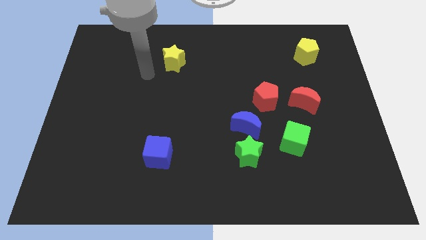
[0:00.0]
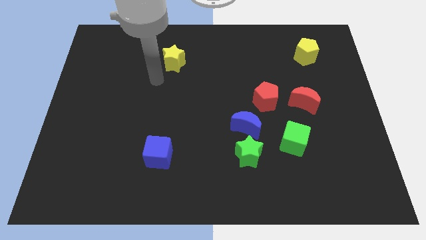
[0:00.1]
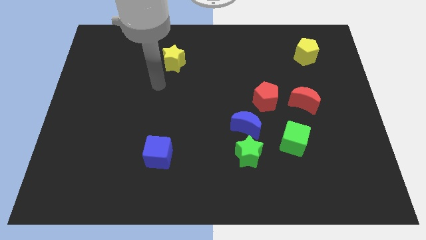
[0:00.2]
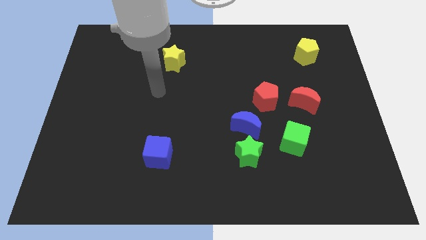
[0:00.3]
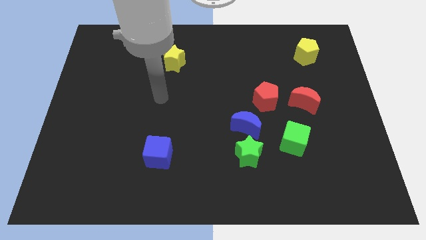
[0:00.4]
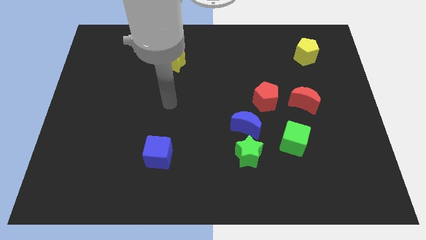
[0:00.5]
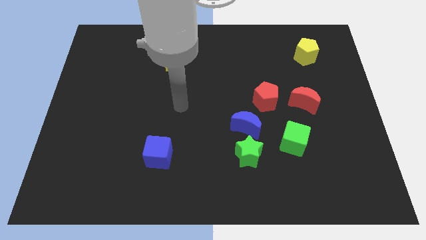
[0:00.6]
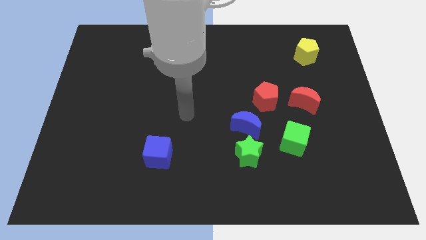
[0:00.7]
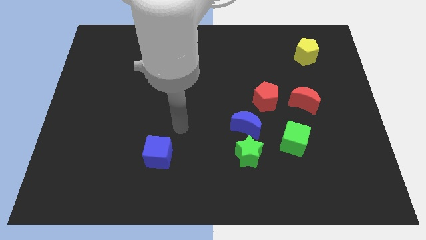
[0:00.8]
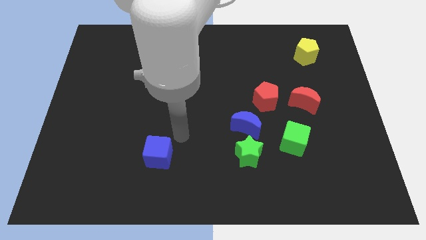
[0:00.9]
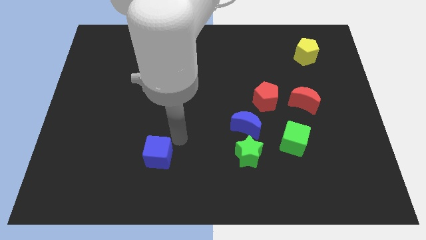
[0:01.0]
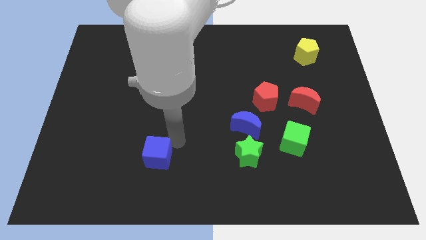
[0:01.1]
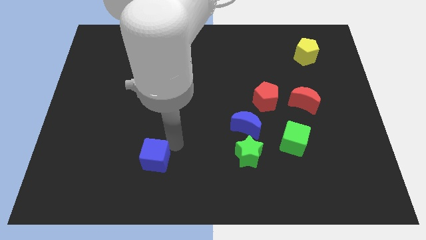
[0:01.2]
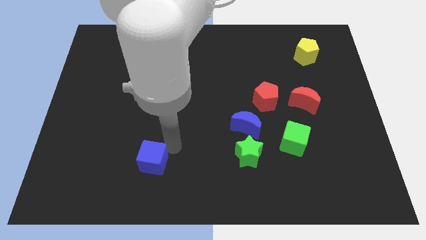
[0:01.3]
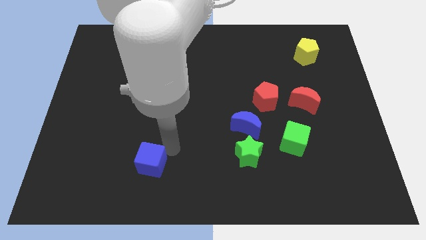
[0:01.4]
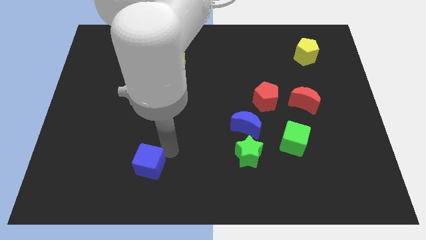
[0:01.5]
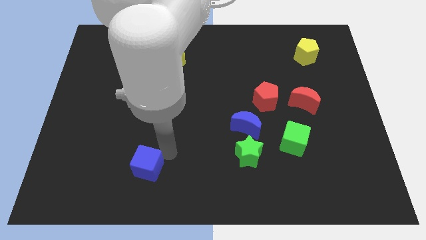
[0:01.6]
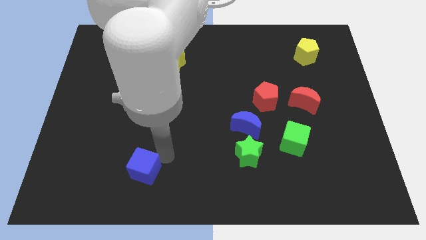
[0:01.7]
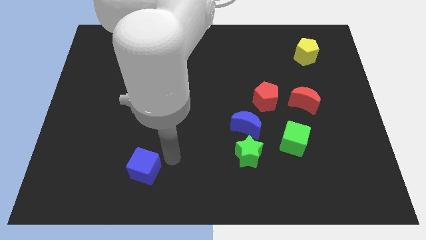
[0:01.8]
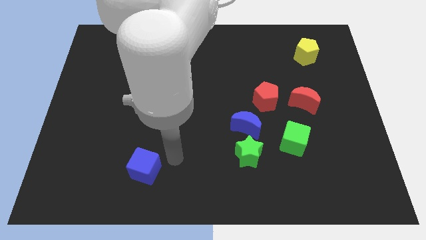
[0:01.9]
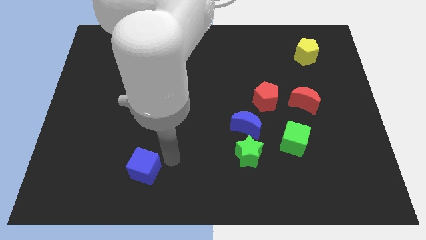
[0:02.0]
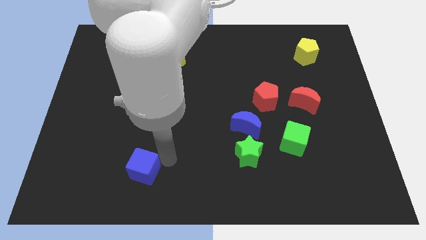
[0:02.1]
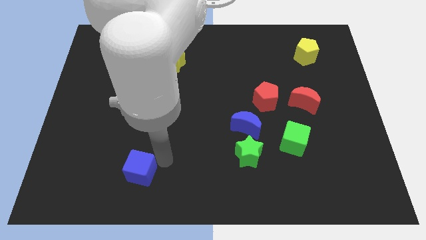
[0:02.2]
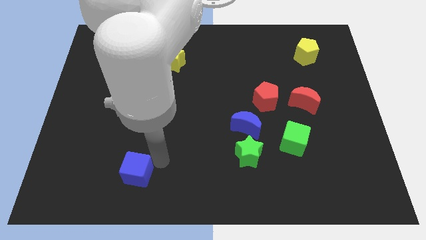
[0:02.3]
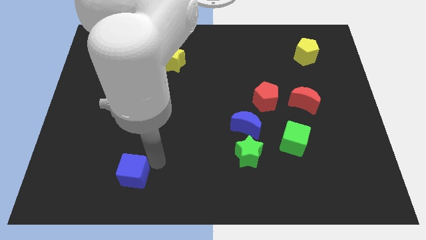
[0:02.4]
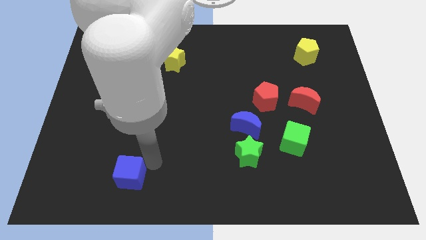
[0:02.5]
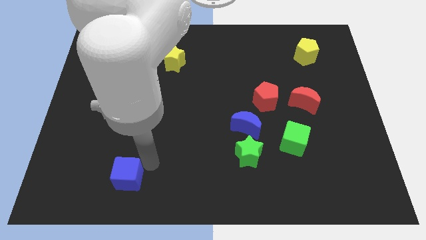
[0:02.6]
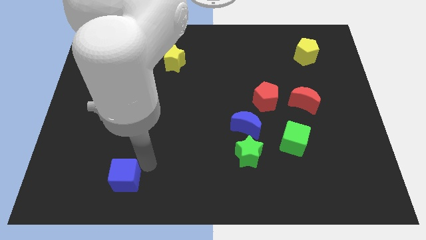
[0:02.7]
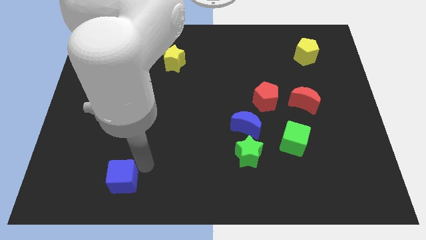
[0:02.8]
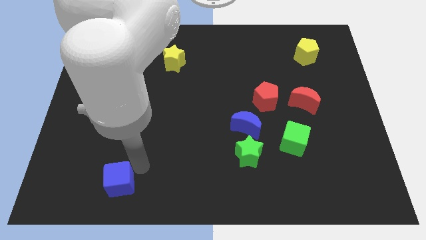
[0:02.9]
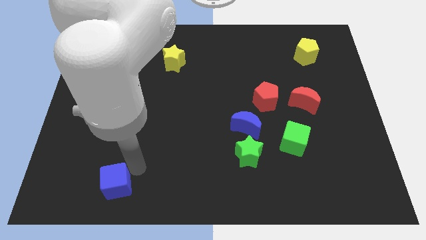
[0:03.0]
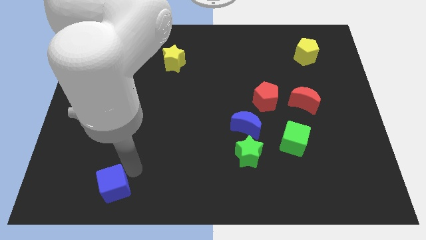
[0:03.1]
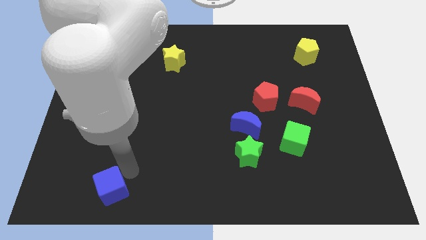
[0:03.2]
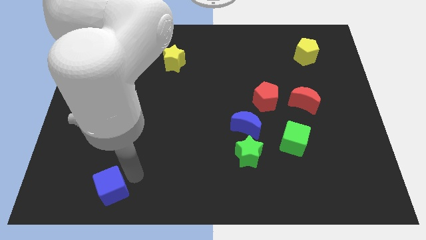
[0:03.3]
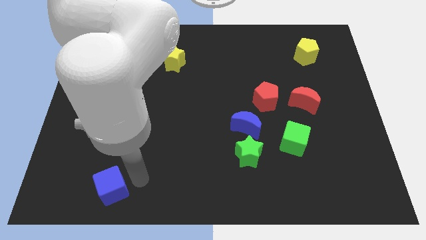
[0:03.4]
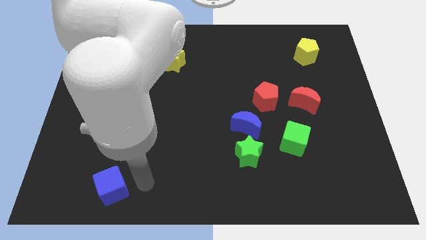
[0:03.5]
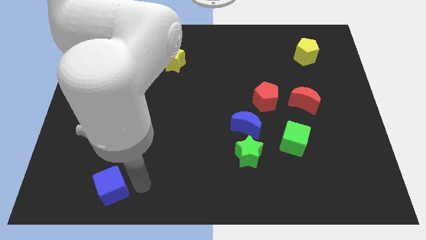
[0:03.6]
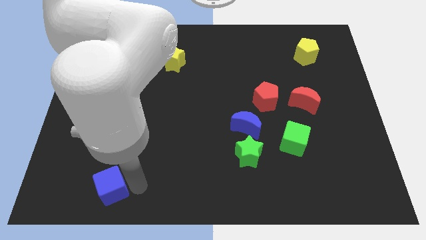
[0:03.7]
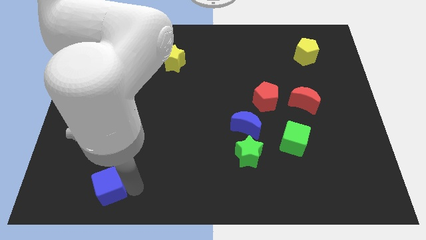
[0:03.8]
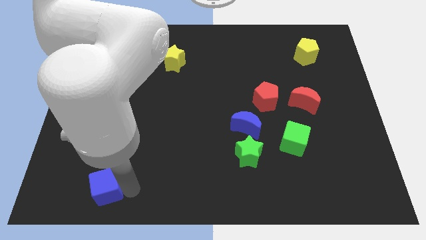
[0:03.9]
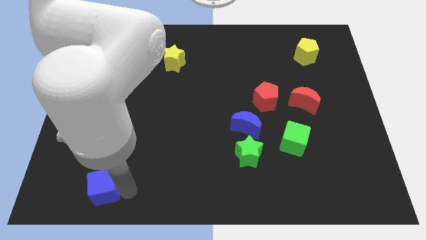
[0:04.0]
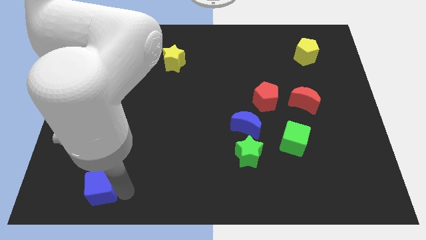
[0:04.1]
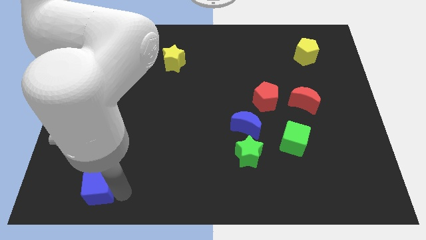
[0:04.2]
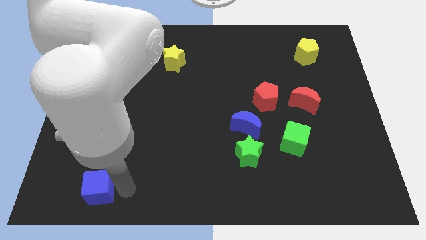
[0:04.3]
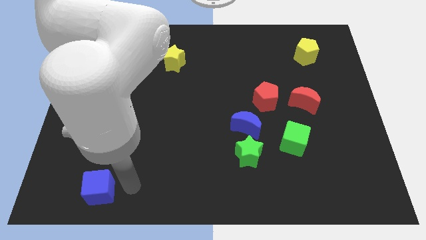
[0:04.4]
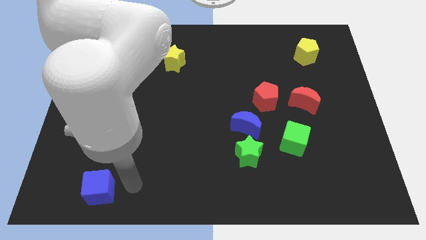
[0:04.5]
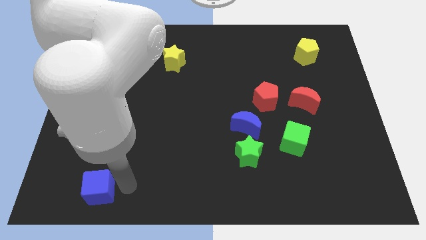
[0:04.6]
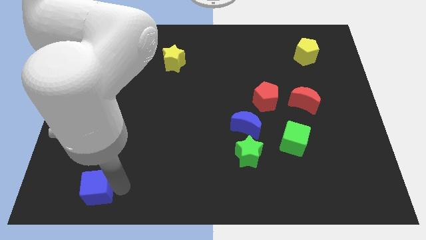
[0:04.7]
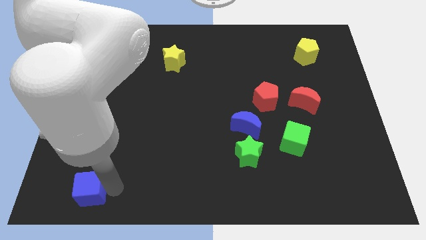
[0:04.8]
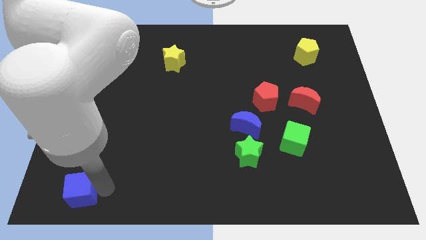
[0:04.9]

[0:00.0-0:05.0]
move the blue cube to the bottom left

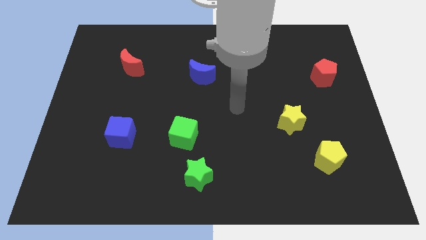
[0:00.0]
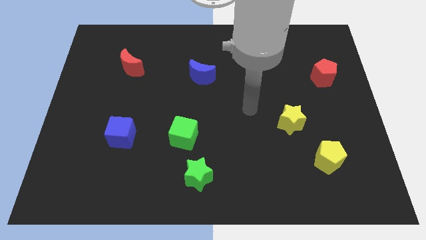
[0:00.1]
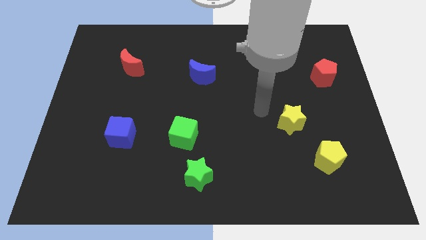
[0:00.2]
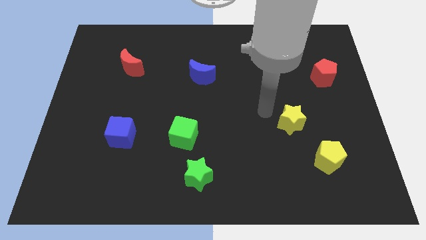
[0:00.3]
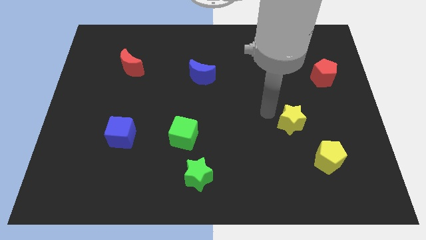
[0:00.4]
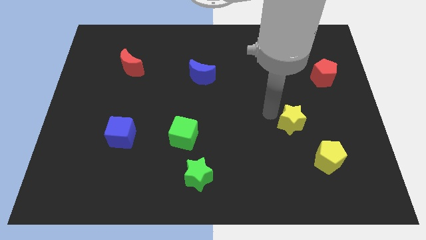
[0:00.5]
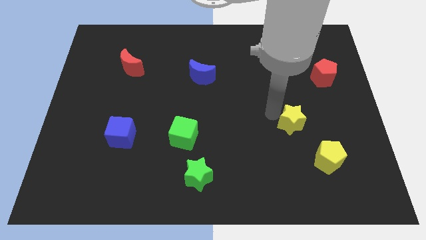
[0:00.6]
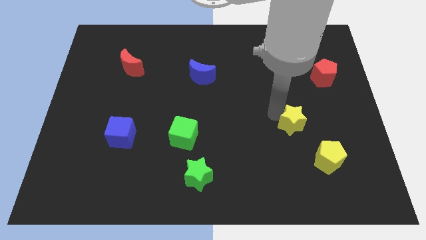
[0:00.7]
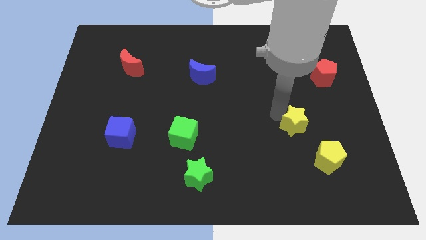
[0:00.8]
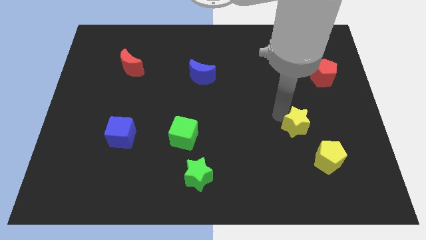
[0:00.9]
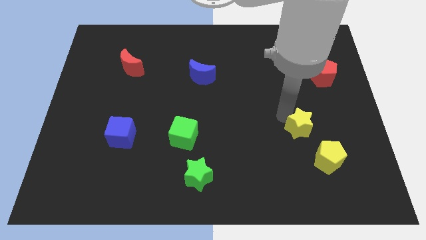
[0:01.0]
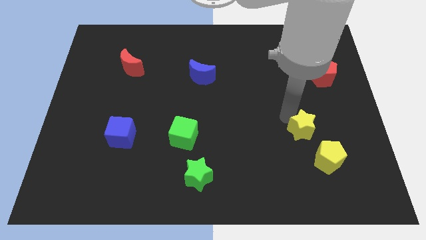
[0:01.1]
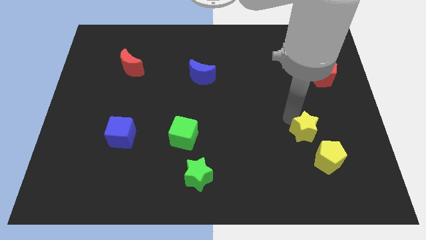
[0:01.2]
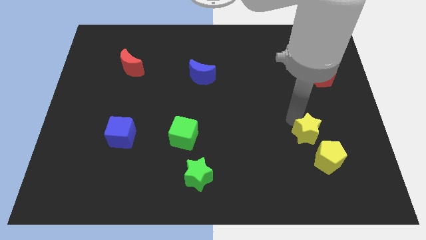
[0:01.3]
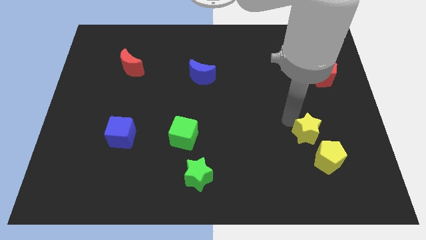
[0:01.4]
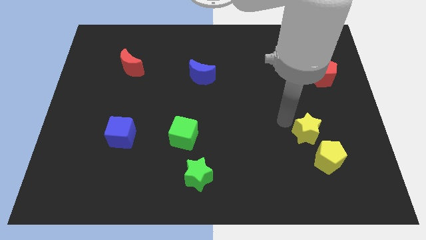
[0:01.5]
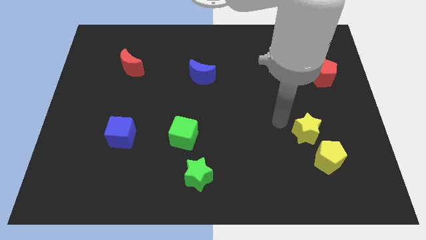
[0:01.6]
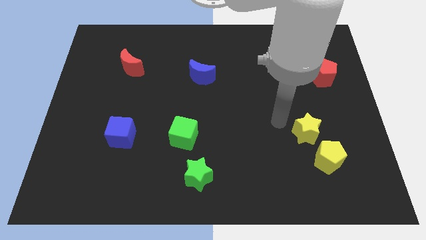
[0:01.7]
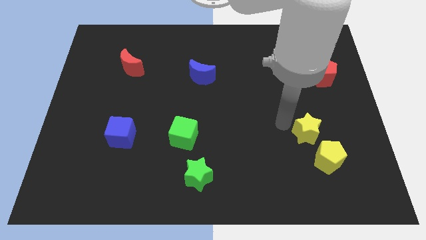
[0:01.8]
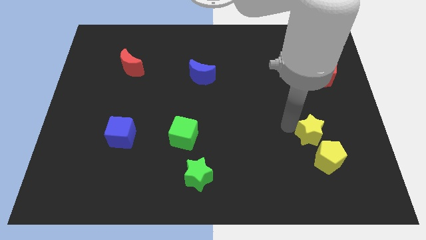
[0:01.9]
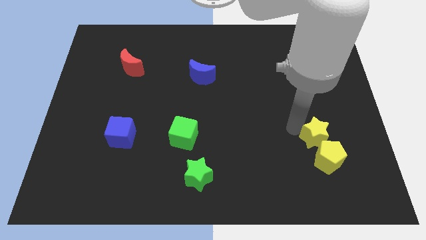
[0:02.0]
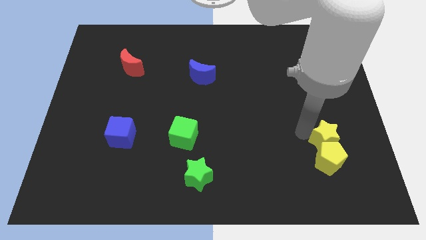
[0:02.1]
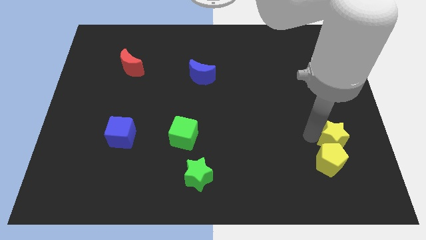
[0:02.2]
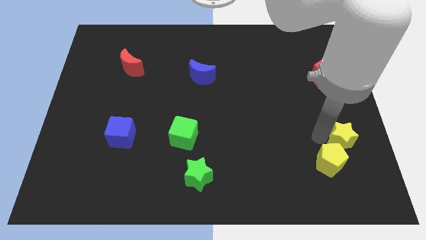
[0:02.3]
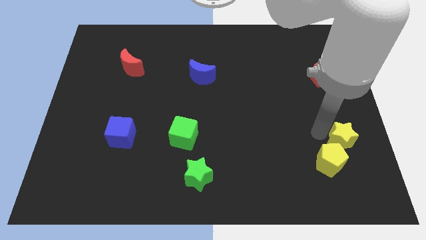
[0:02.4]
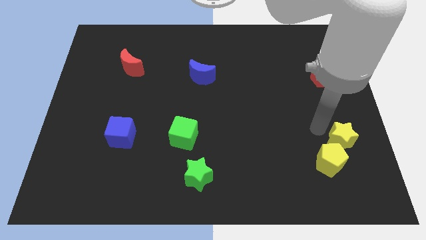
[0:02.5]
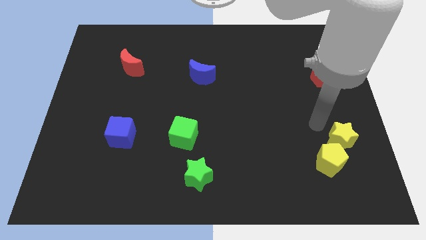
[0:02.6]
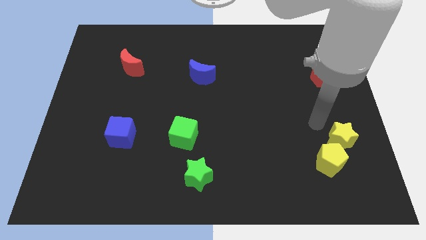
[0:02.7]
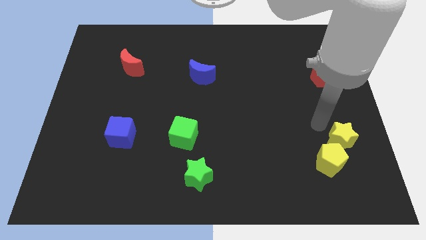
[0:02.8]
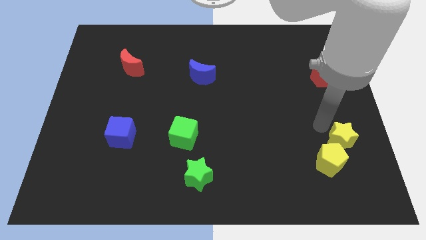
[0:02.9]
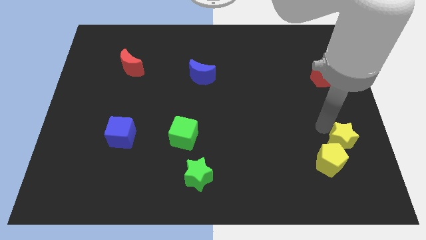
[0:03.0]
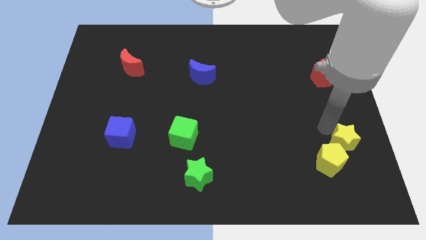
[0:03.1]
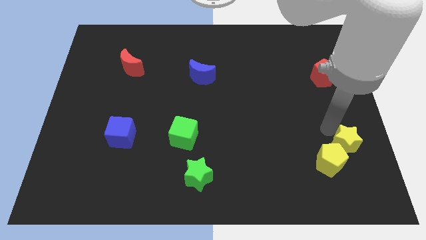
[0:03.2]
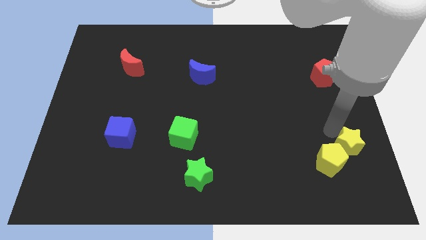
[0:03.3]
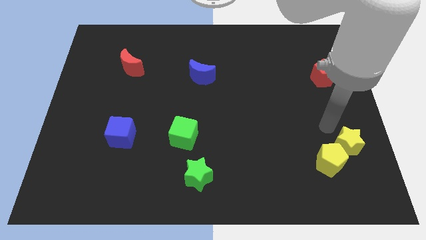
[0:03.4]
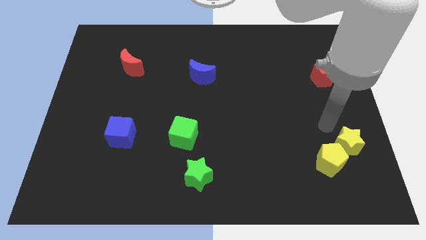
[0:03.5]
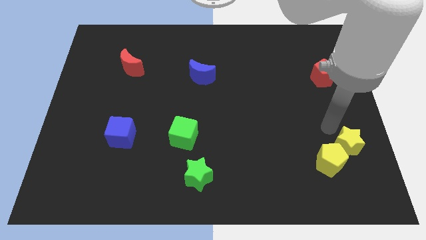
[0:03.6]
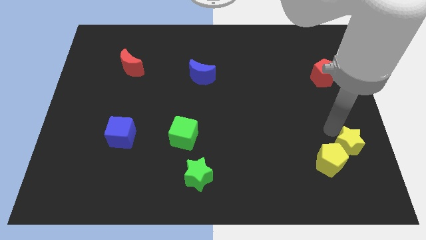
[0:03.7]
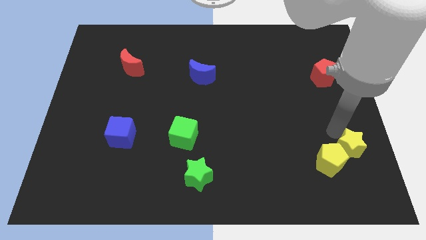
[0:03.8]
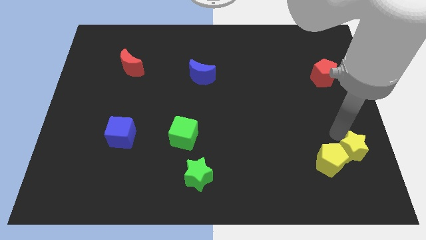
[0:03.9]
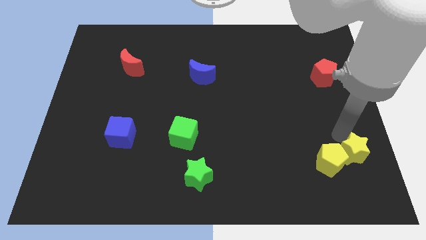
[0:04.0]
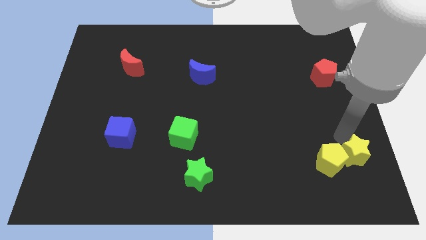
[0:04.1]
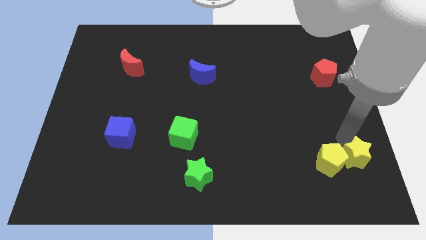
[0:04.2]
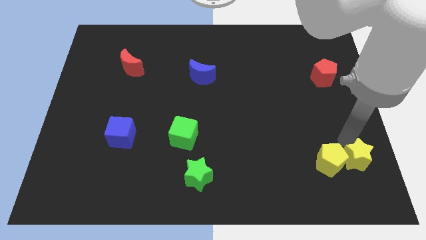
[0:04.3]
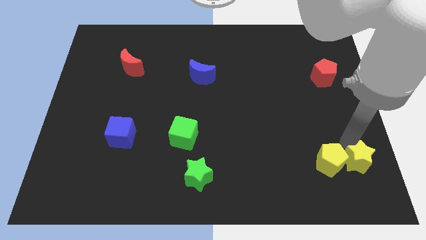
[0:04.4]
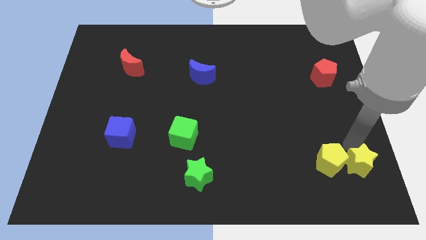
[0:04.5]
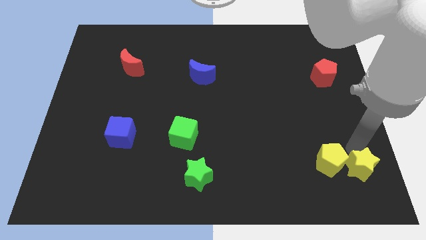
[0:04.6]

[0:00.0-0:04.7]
move the yellow star to the bottom right
